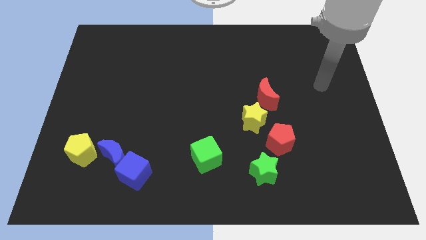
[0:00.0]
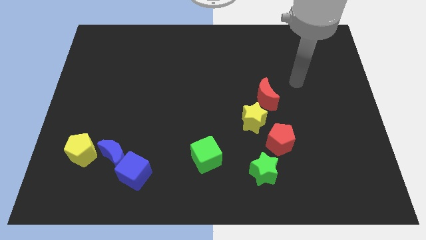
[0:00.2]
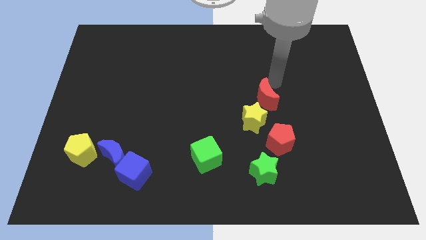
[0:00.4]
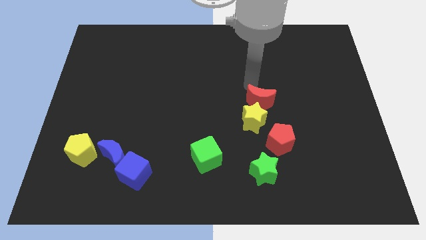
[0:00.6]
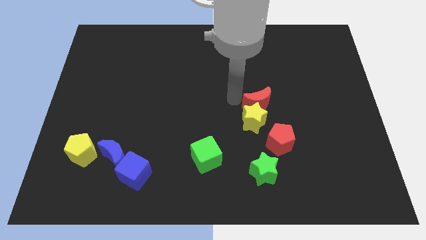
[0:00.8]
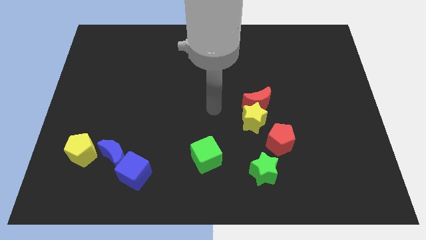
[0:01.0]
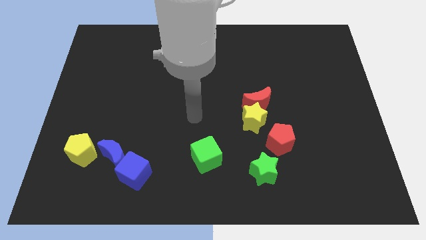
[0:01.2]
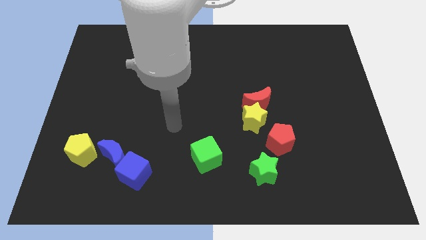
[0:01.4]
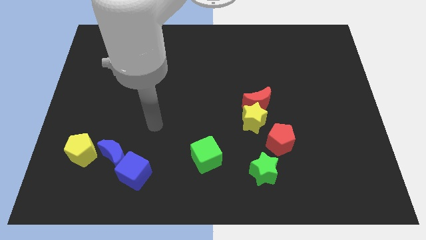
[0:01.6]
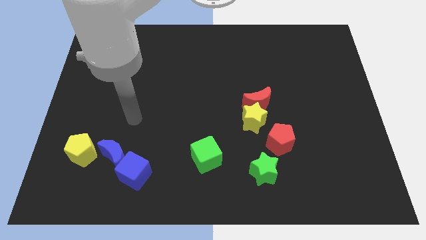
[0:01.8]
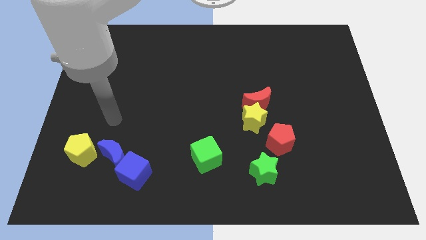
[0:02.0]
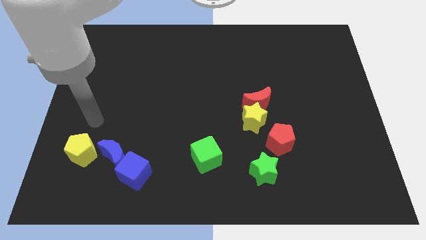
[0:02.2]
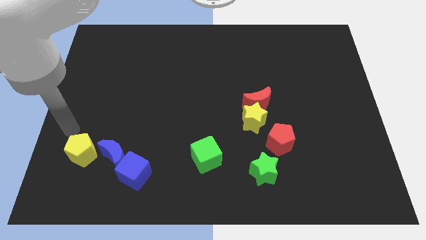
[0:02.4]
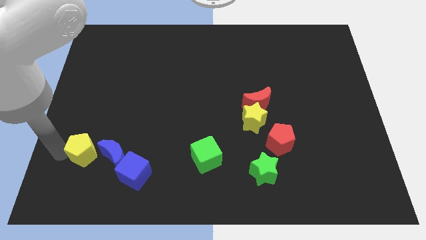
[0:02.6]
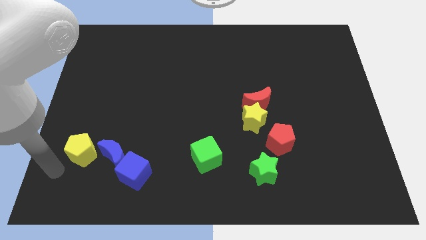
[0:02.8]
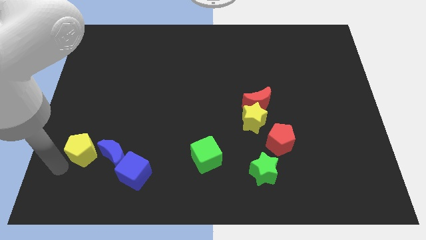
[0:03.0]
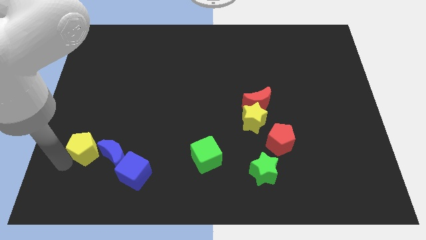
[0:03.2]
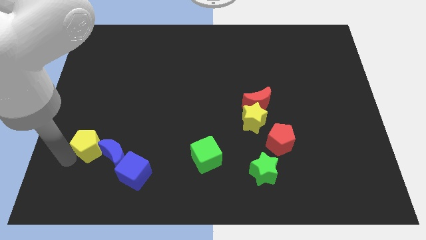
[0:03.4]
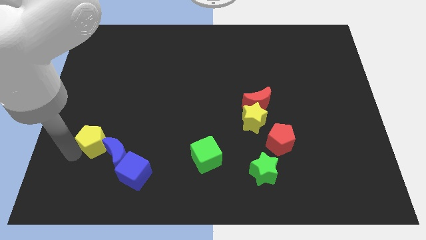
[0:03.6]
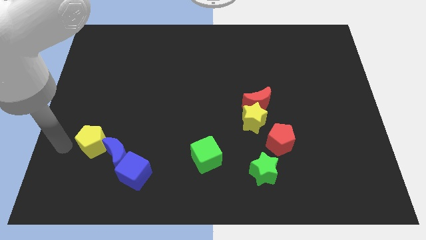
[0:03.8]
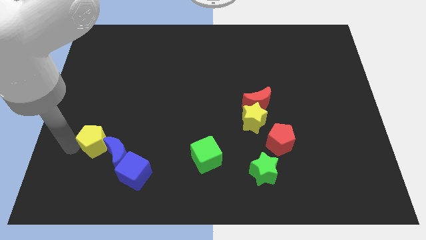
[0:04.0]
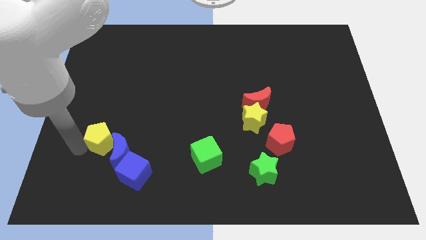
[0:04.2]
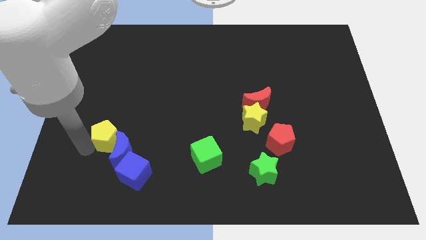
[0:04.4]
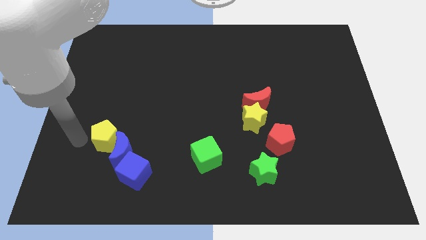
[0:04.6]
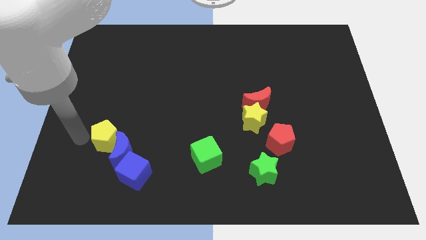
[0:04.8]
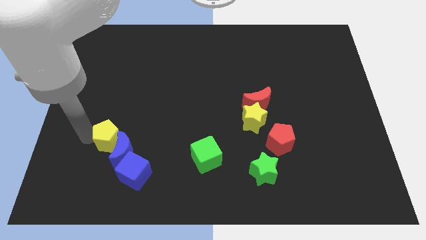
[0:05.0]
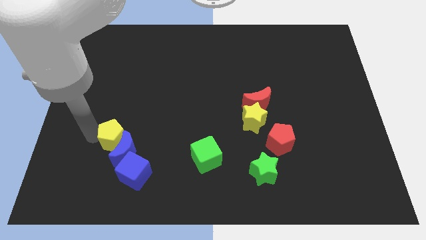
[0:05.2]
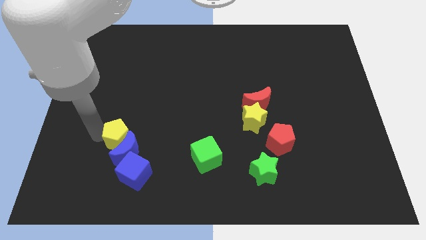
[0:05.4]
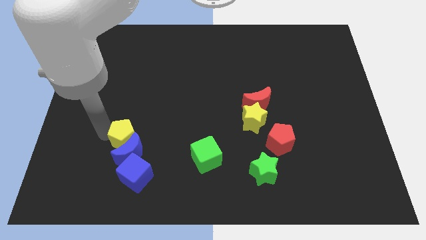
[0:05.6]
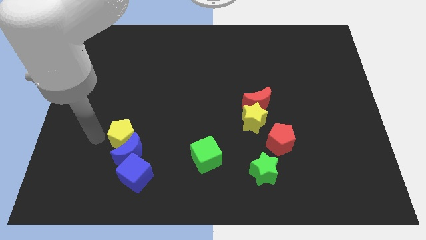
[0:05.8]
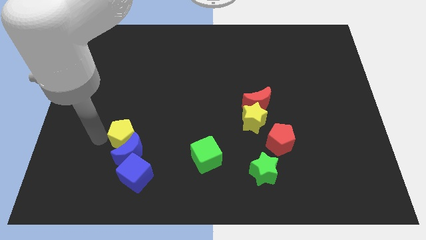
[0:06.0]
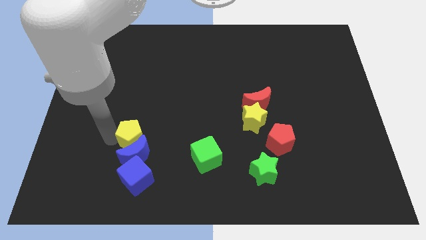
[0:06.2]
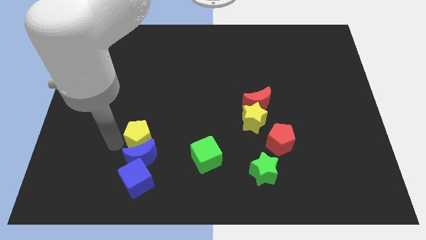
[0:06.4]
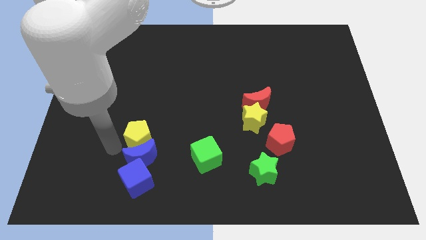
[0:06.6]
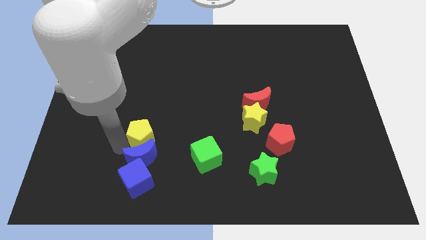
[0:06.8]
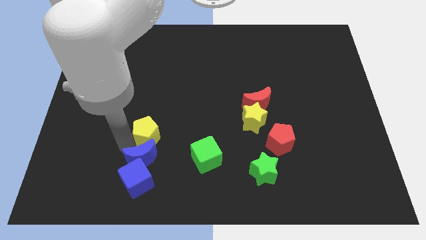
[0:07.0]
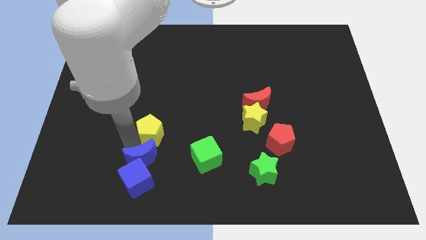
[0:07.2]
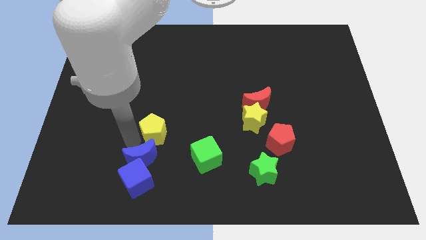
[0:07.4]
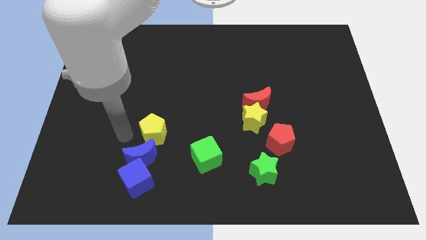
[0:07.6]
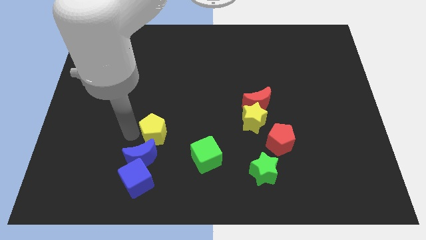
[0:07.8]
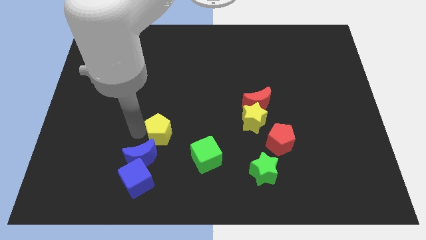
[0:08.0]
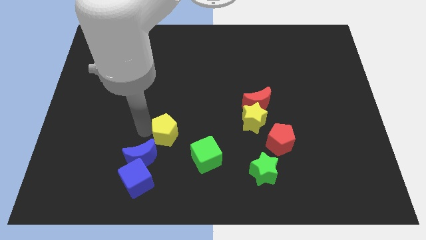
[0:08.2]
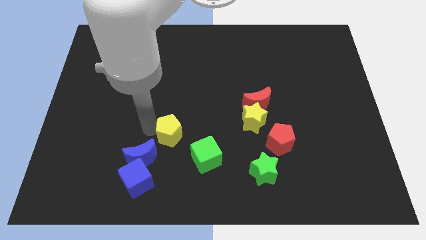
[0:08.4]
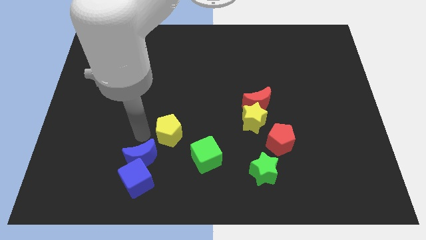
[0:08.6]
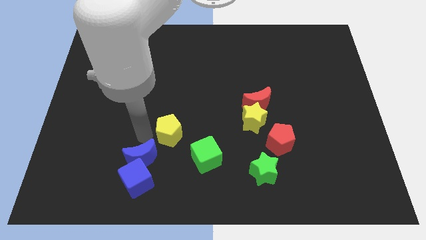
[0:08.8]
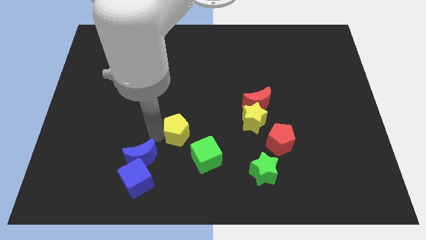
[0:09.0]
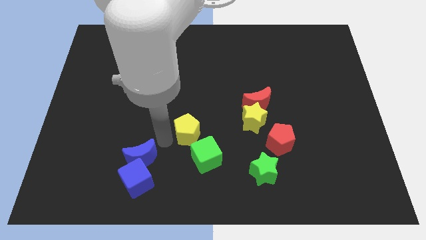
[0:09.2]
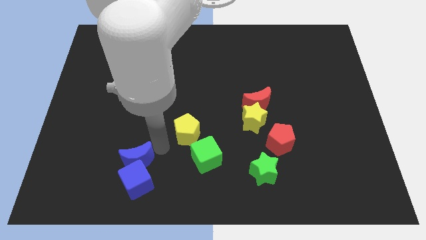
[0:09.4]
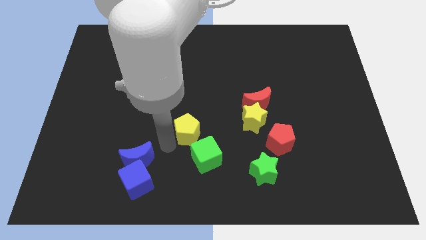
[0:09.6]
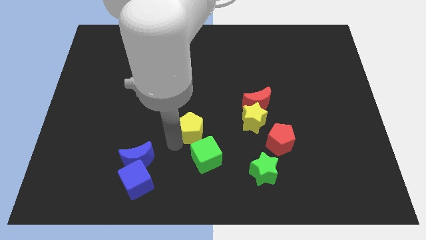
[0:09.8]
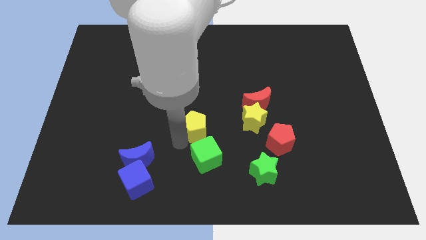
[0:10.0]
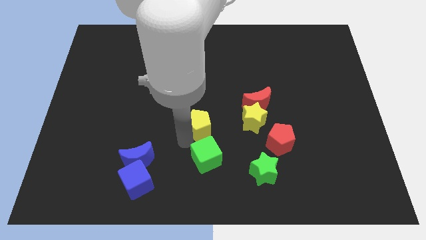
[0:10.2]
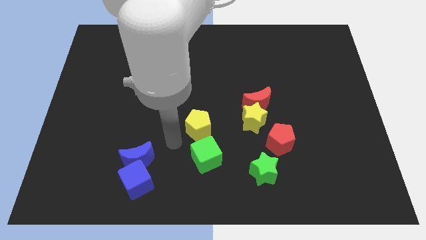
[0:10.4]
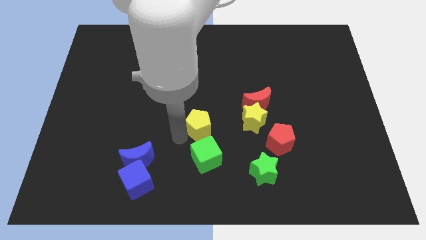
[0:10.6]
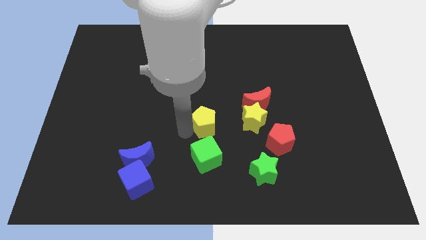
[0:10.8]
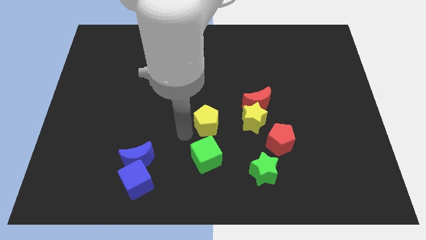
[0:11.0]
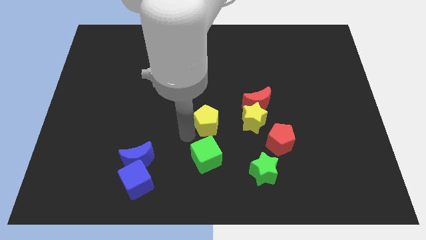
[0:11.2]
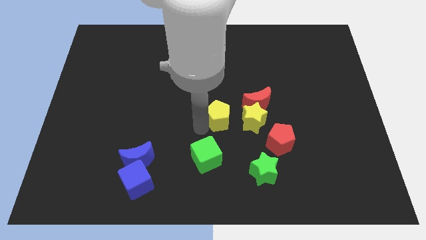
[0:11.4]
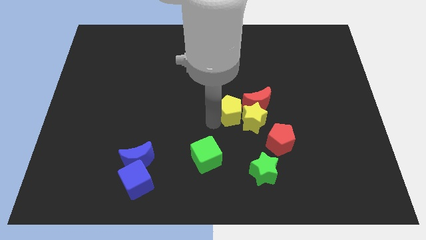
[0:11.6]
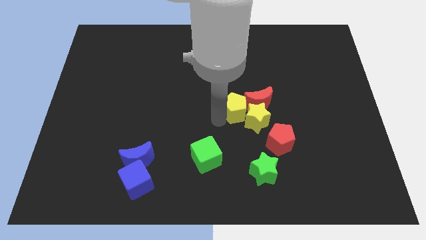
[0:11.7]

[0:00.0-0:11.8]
slide the yellow pentagon to the red moon

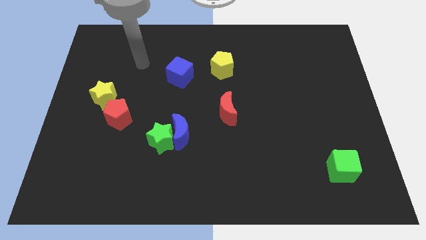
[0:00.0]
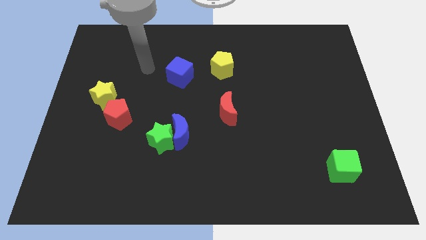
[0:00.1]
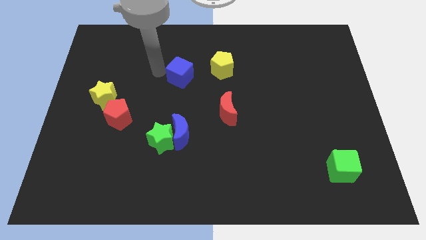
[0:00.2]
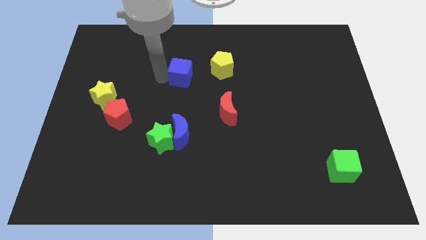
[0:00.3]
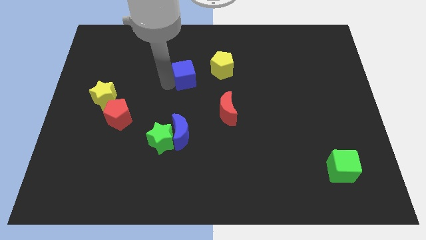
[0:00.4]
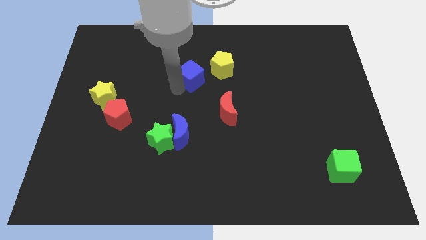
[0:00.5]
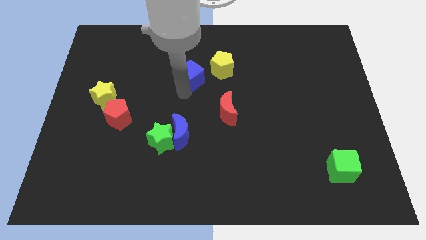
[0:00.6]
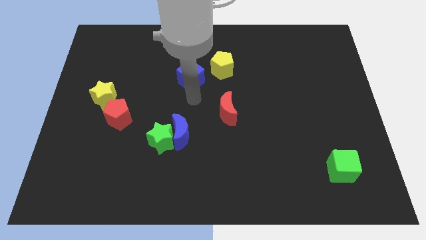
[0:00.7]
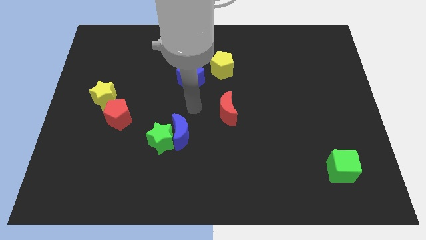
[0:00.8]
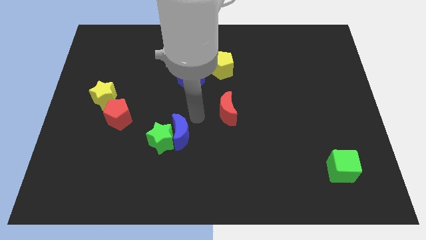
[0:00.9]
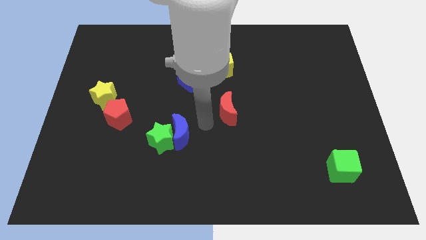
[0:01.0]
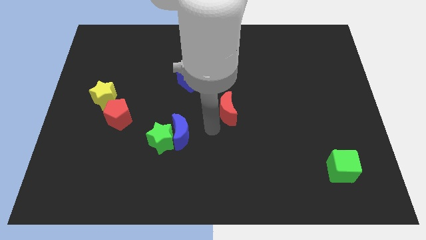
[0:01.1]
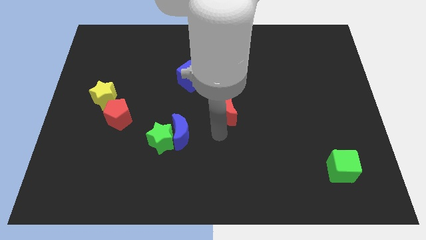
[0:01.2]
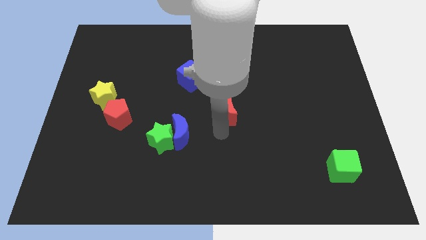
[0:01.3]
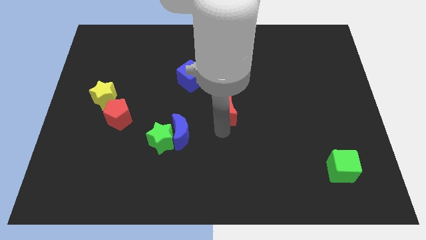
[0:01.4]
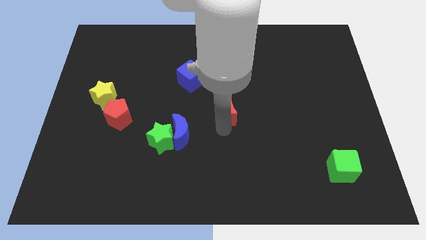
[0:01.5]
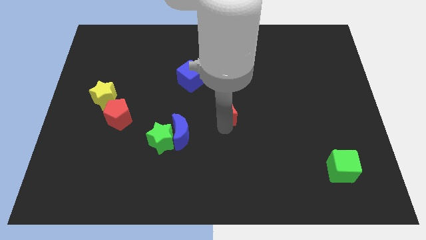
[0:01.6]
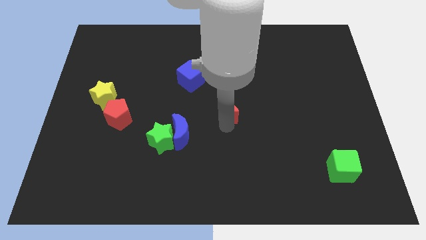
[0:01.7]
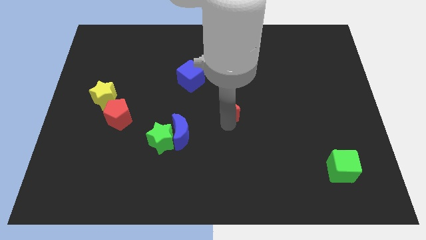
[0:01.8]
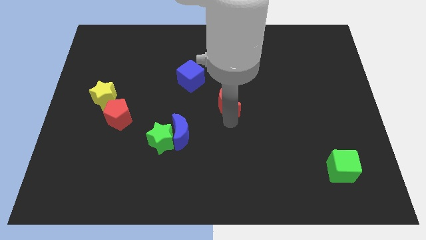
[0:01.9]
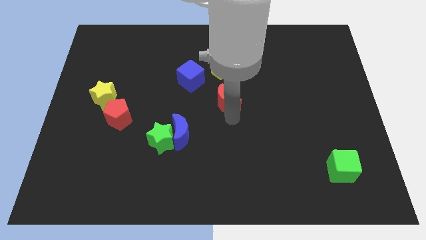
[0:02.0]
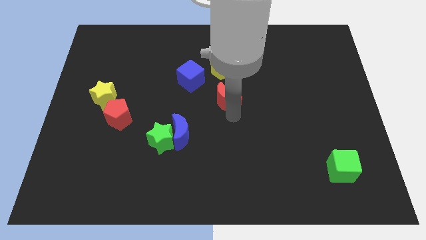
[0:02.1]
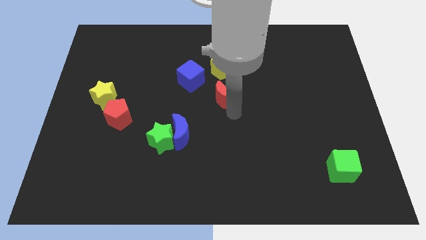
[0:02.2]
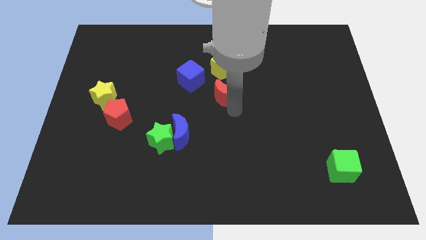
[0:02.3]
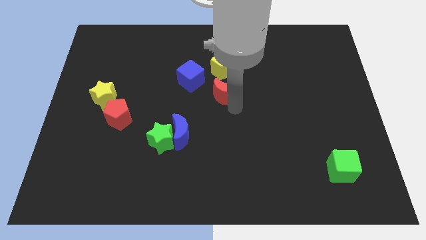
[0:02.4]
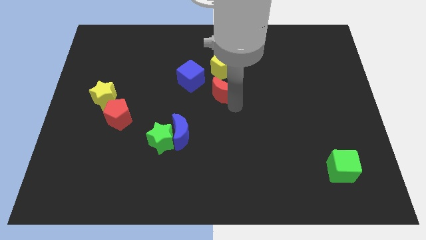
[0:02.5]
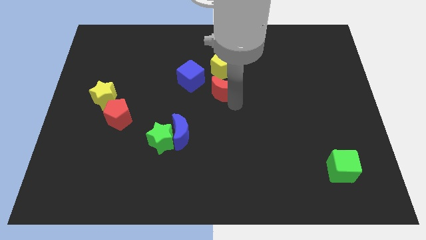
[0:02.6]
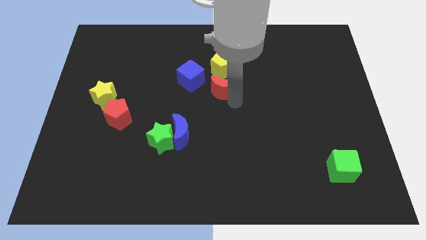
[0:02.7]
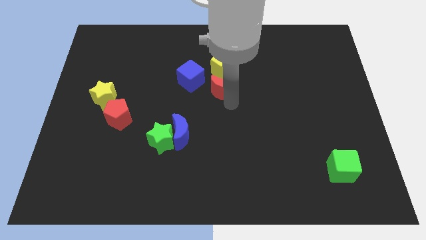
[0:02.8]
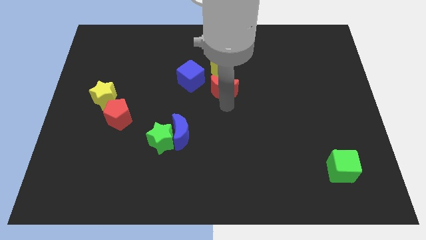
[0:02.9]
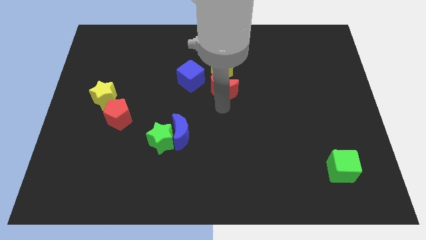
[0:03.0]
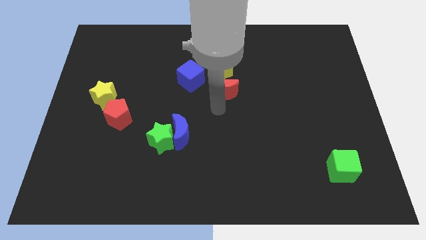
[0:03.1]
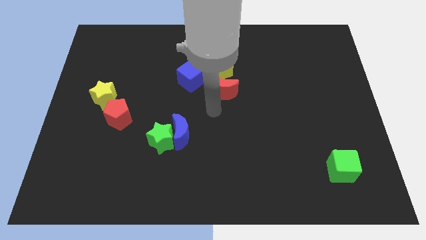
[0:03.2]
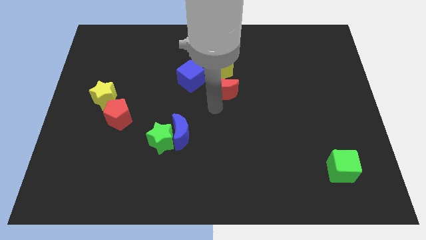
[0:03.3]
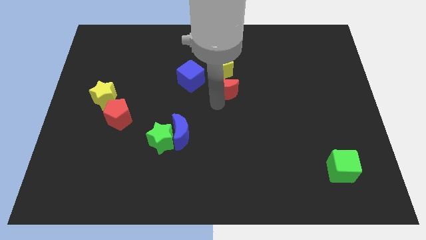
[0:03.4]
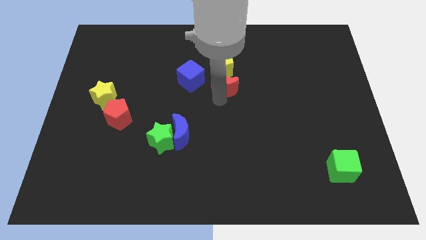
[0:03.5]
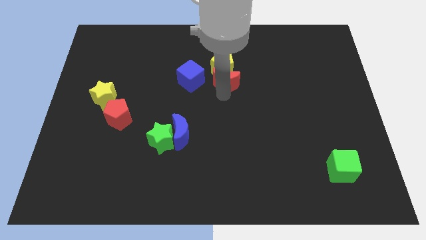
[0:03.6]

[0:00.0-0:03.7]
slide the red moon towards the yellow pentagon
